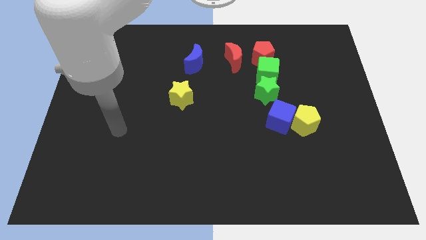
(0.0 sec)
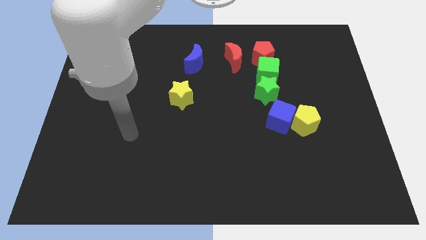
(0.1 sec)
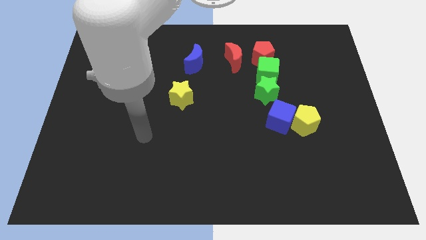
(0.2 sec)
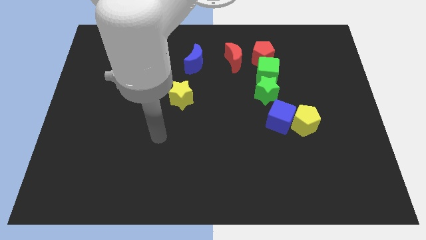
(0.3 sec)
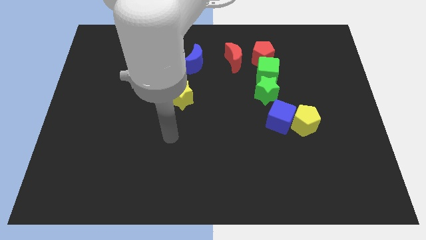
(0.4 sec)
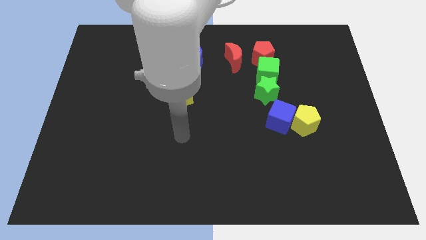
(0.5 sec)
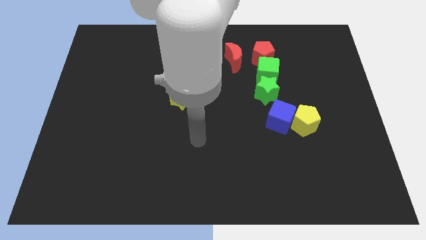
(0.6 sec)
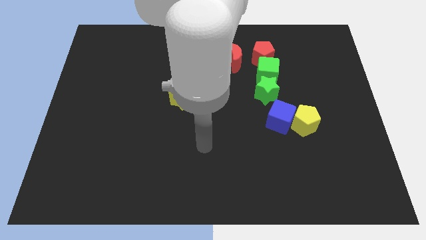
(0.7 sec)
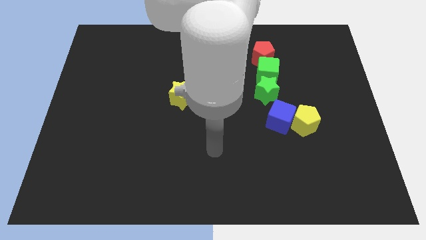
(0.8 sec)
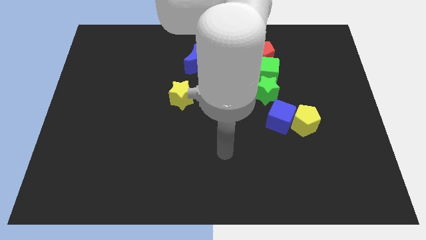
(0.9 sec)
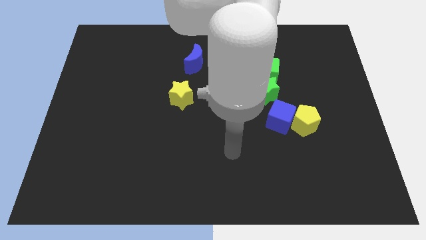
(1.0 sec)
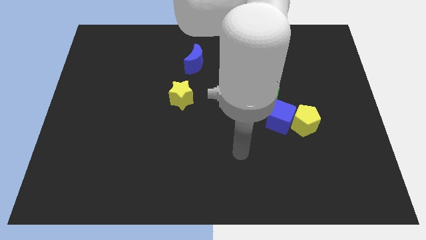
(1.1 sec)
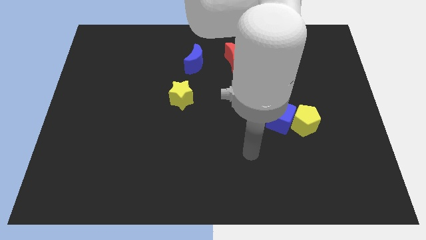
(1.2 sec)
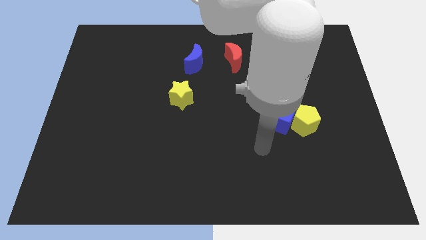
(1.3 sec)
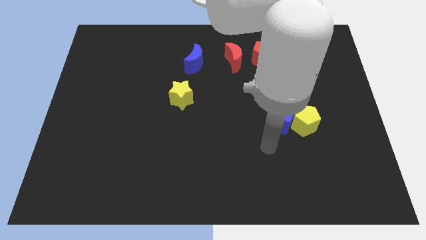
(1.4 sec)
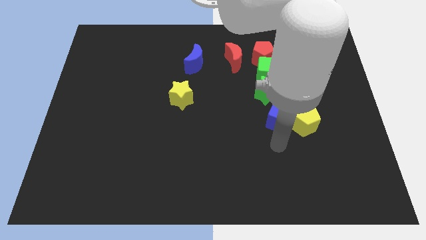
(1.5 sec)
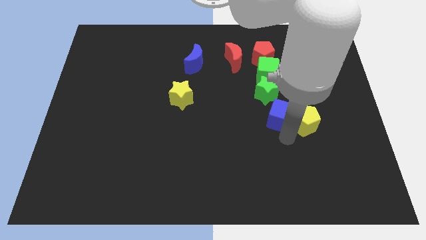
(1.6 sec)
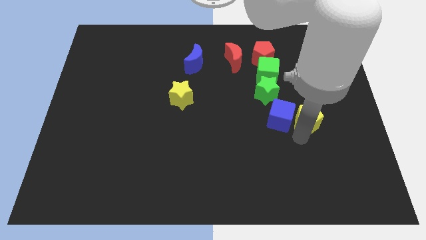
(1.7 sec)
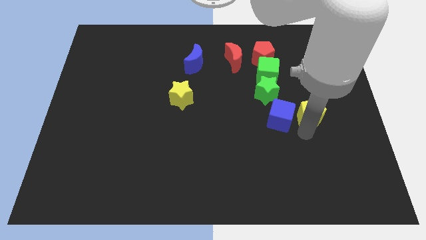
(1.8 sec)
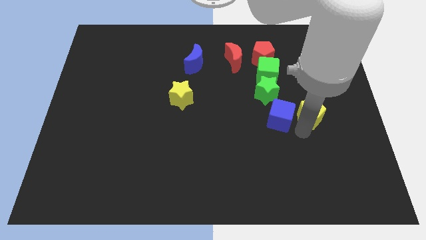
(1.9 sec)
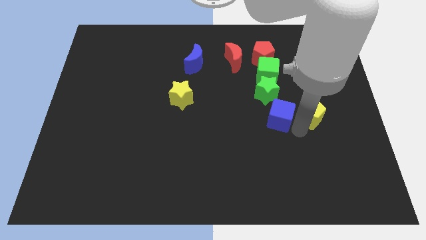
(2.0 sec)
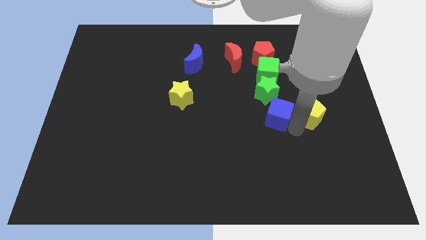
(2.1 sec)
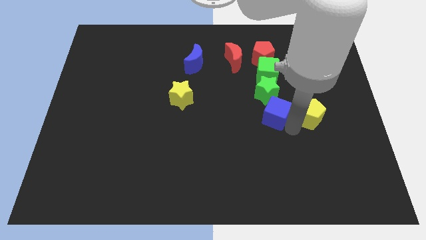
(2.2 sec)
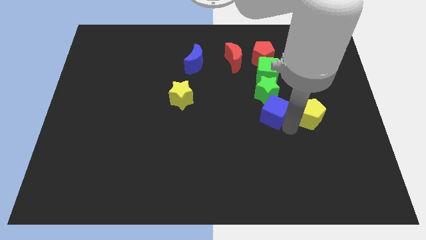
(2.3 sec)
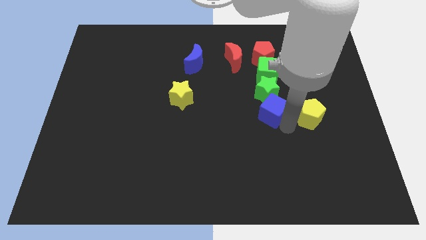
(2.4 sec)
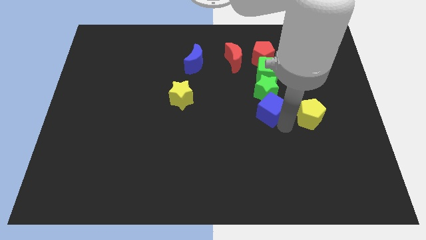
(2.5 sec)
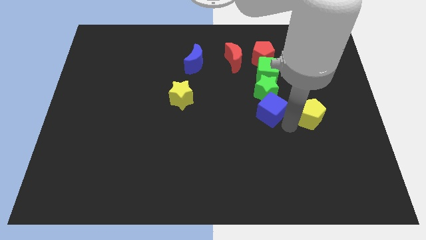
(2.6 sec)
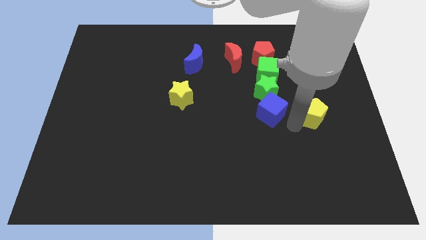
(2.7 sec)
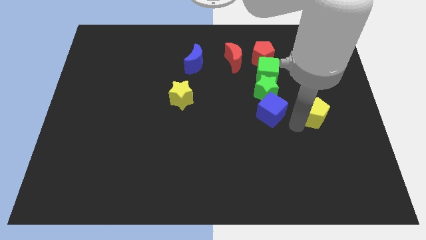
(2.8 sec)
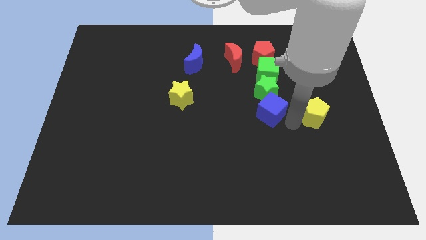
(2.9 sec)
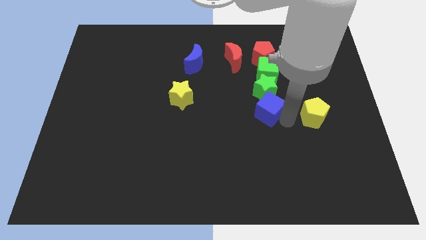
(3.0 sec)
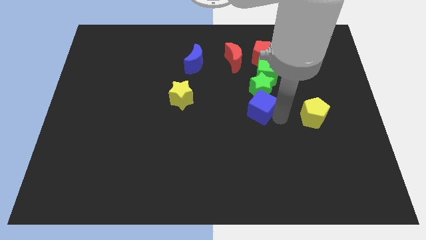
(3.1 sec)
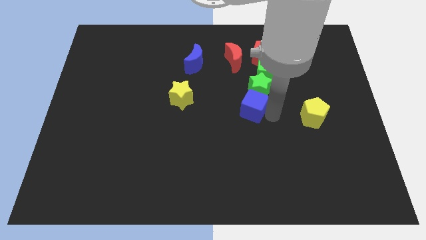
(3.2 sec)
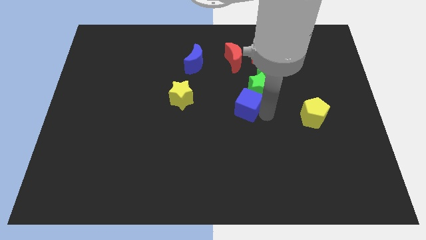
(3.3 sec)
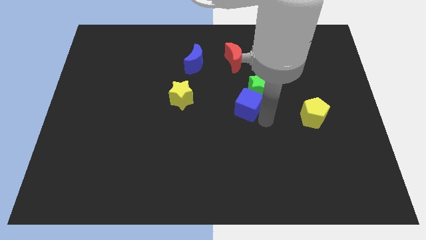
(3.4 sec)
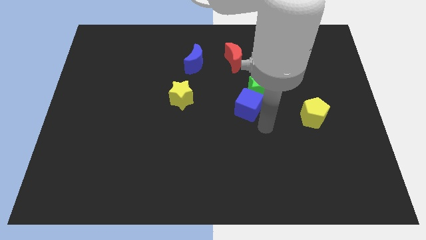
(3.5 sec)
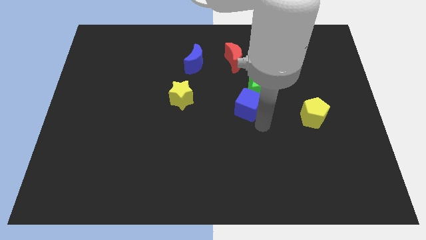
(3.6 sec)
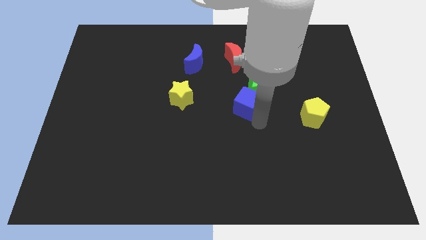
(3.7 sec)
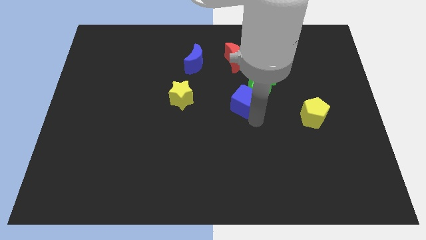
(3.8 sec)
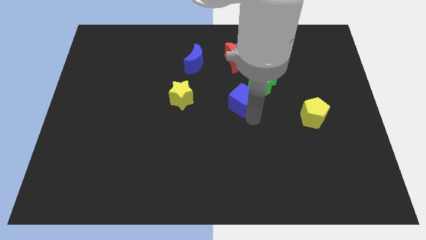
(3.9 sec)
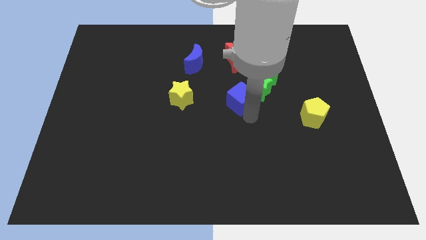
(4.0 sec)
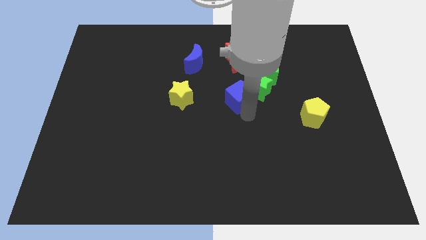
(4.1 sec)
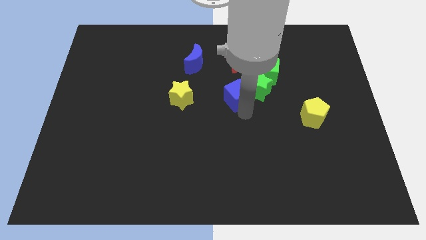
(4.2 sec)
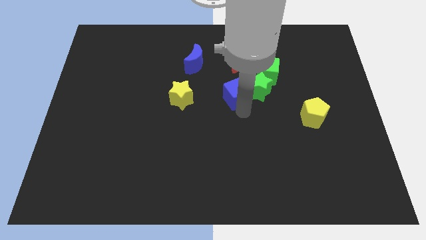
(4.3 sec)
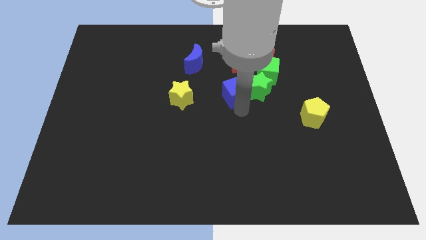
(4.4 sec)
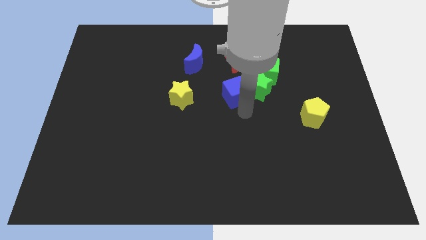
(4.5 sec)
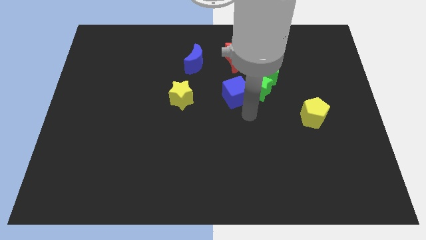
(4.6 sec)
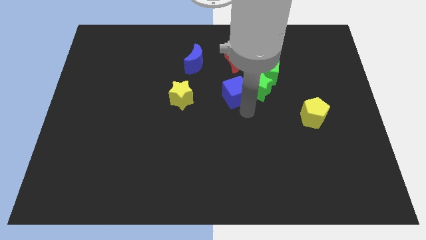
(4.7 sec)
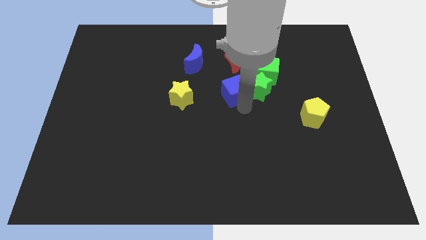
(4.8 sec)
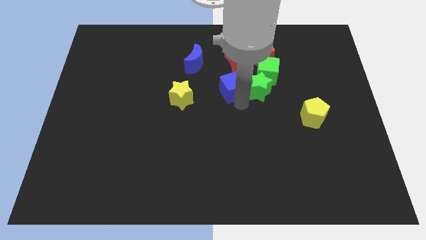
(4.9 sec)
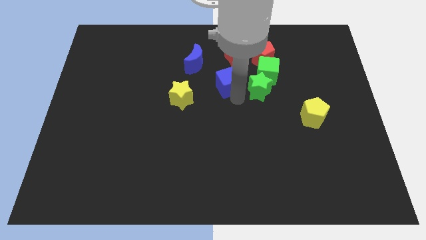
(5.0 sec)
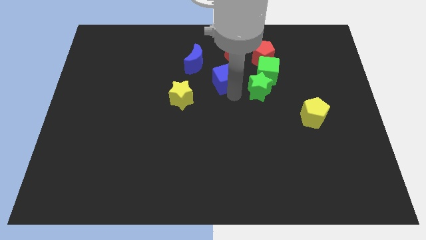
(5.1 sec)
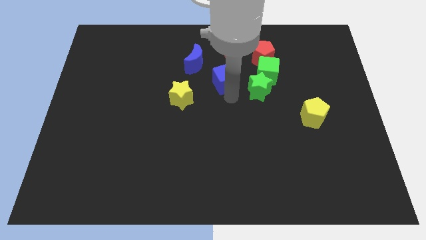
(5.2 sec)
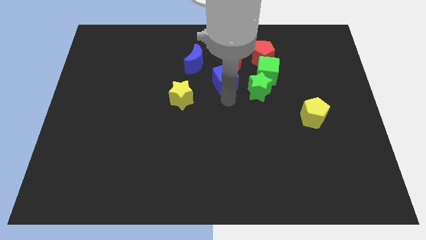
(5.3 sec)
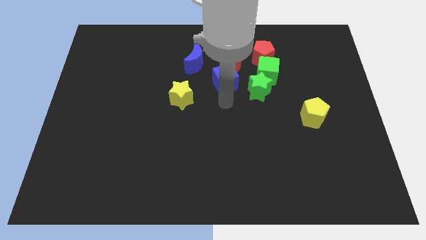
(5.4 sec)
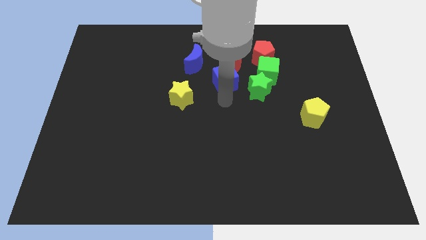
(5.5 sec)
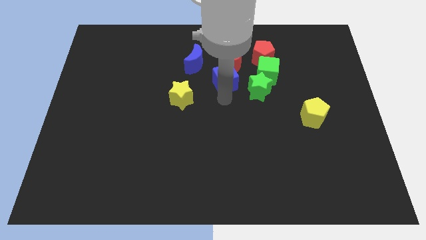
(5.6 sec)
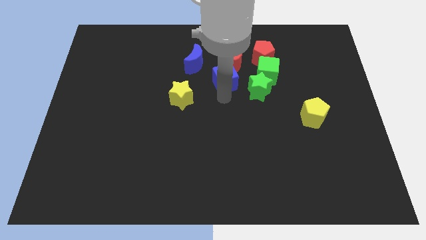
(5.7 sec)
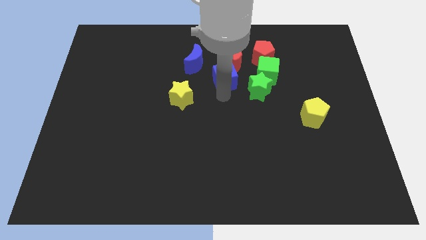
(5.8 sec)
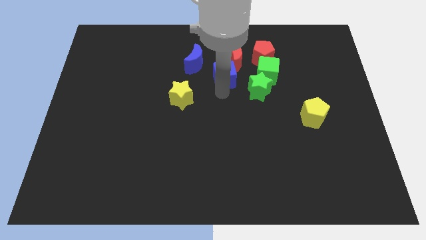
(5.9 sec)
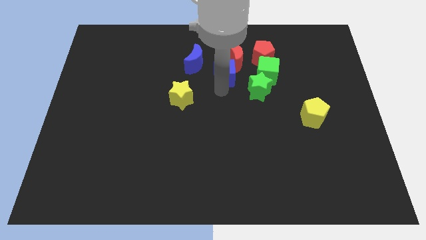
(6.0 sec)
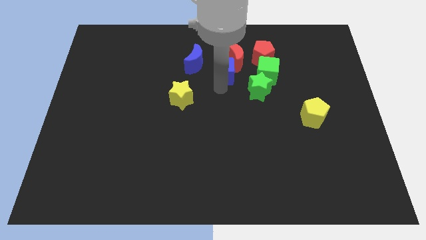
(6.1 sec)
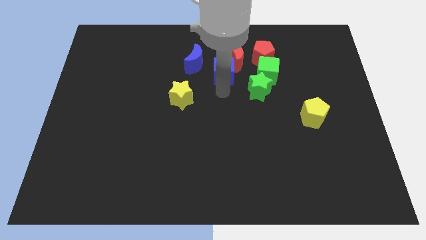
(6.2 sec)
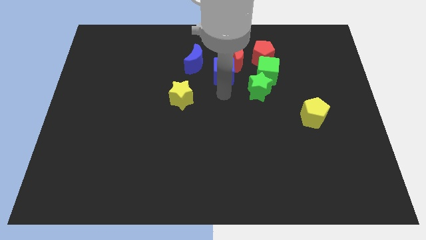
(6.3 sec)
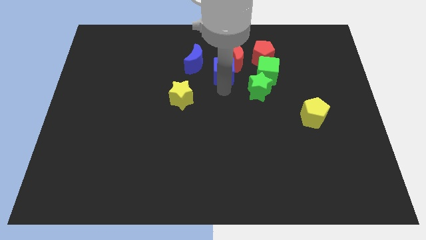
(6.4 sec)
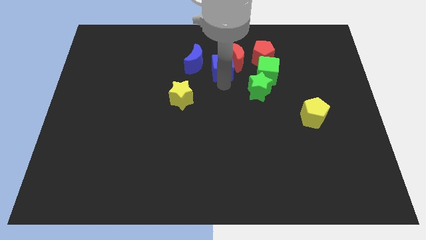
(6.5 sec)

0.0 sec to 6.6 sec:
push the blue cube just left of the red pentagon

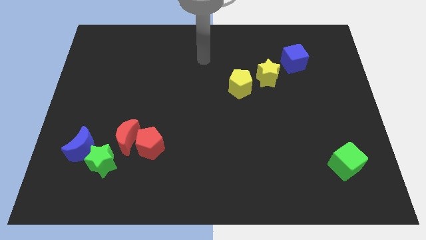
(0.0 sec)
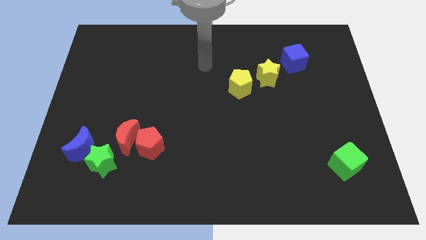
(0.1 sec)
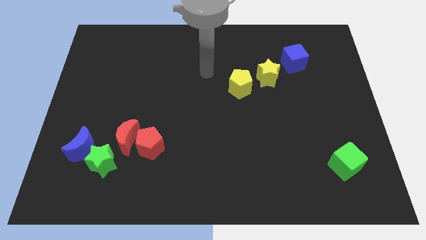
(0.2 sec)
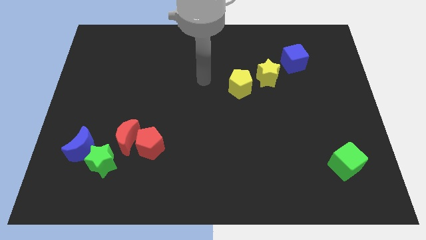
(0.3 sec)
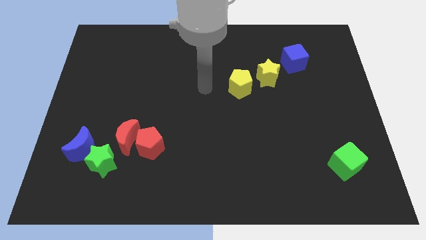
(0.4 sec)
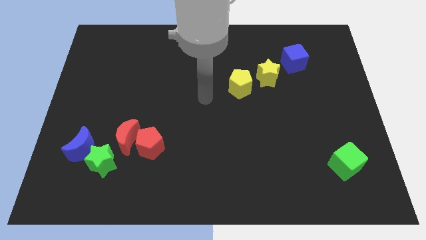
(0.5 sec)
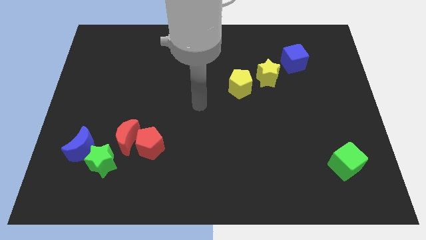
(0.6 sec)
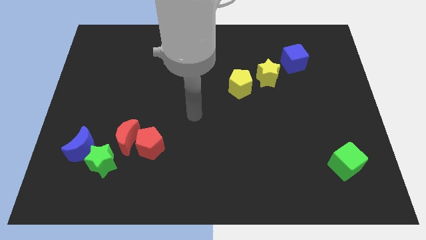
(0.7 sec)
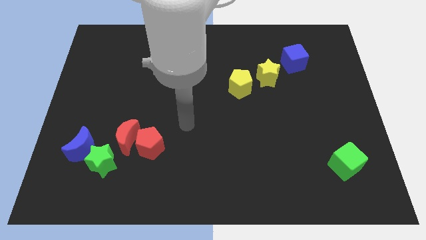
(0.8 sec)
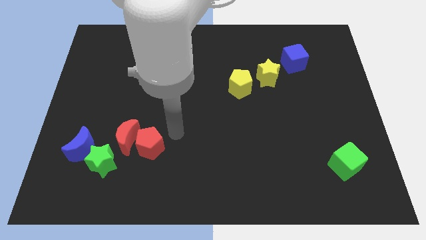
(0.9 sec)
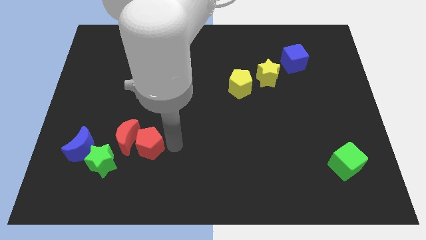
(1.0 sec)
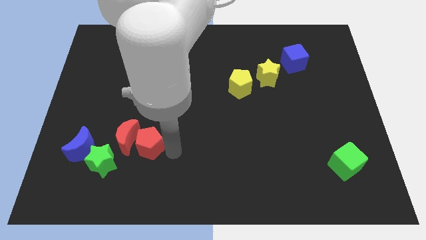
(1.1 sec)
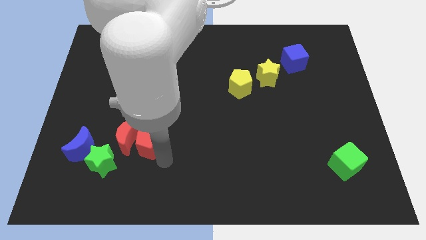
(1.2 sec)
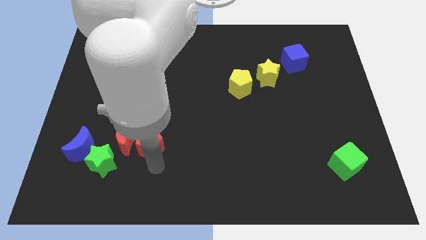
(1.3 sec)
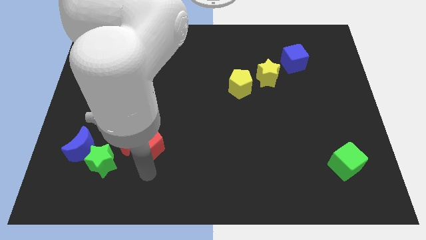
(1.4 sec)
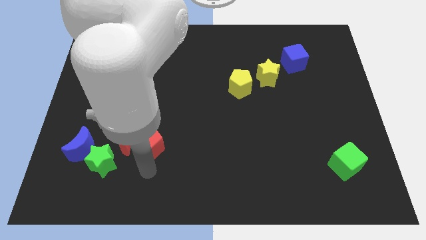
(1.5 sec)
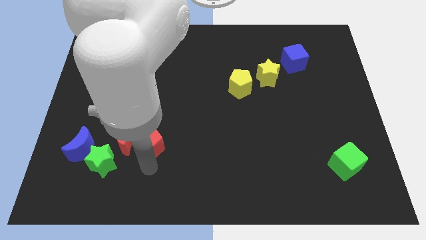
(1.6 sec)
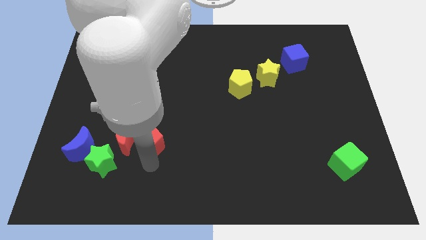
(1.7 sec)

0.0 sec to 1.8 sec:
move the red pentagon to the top right of the red moon
